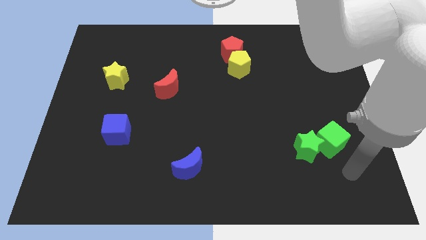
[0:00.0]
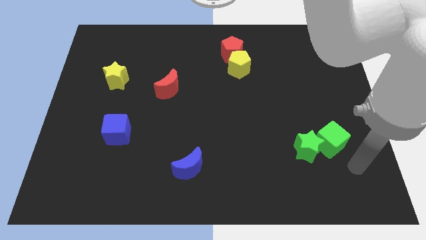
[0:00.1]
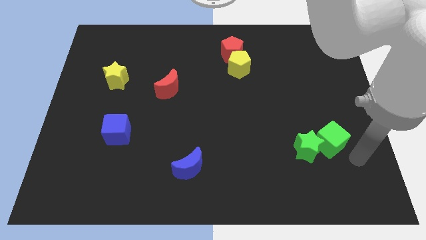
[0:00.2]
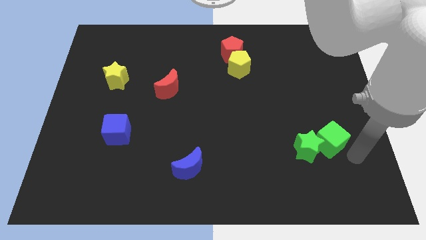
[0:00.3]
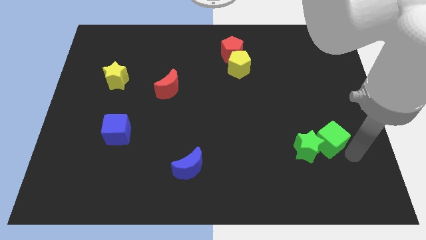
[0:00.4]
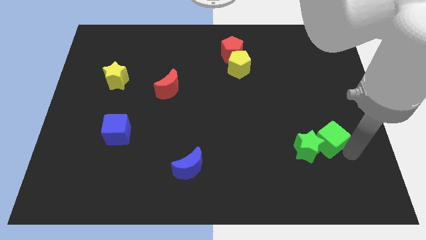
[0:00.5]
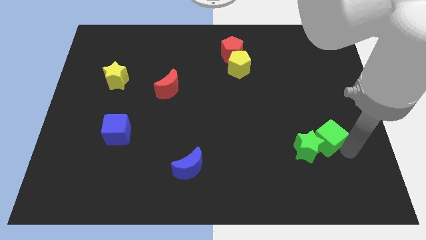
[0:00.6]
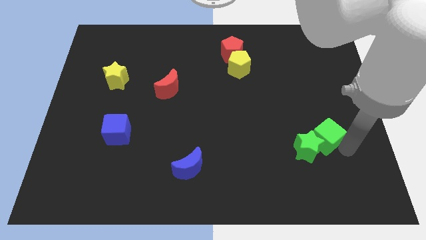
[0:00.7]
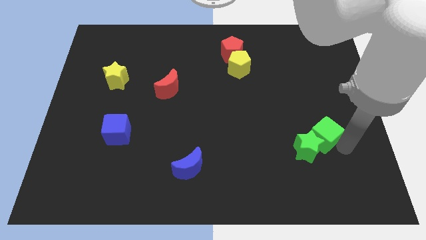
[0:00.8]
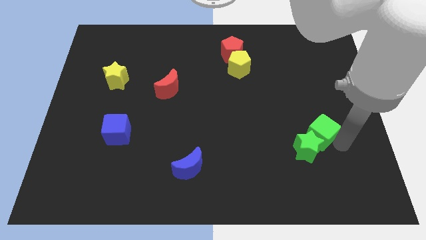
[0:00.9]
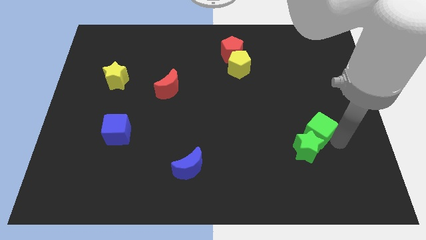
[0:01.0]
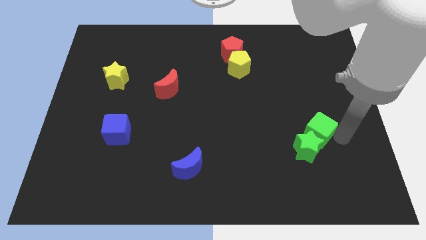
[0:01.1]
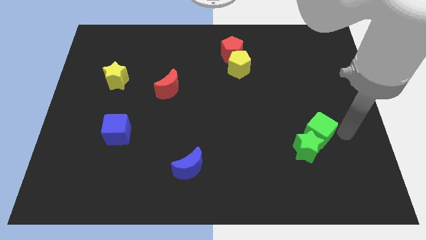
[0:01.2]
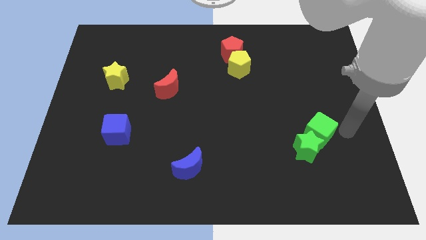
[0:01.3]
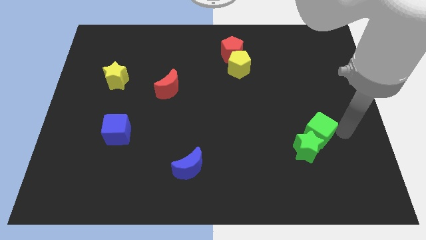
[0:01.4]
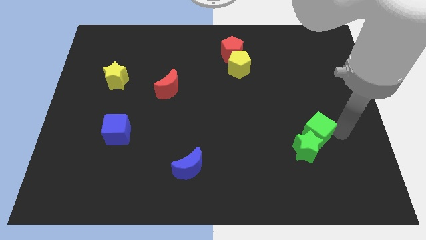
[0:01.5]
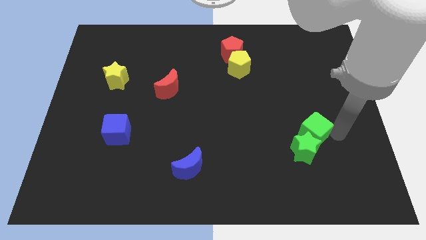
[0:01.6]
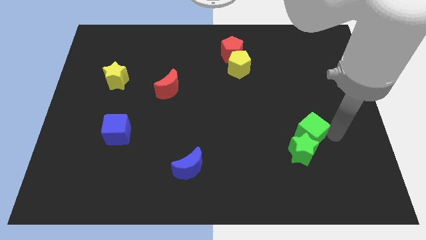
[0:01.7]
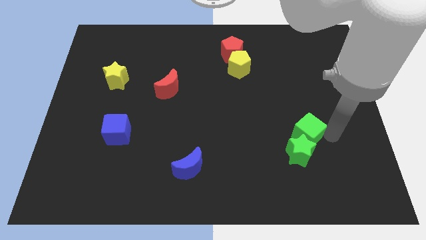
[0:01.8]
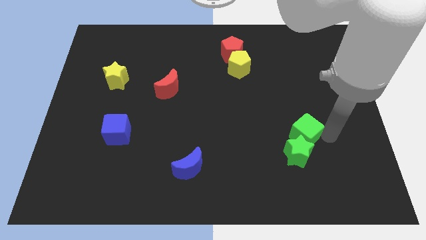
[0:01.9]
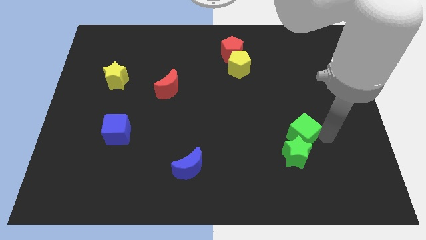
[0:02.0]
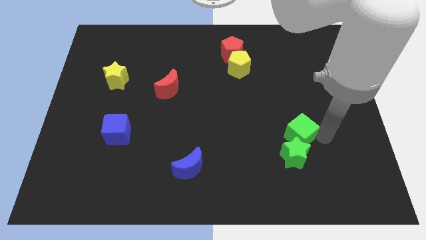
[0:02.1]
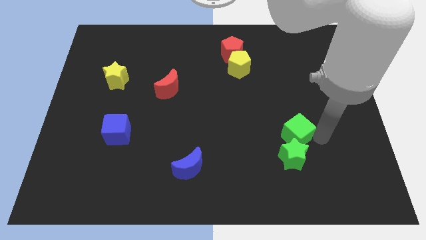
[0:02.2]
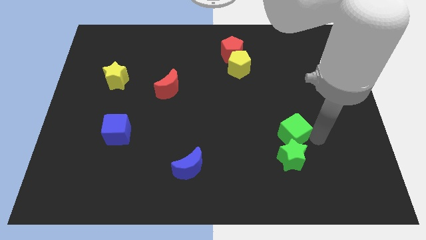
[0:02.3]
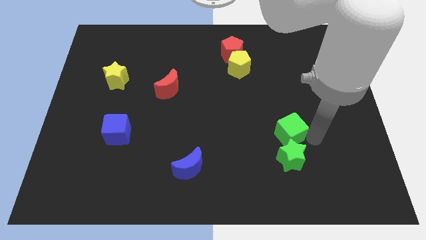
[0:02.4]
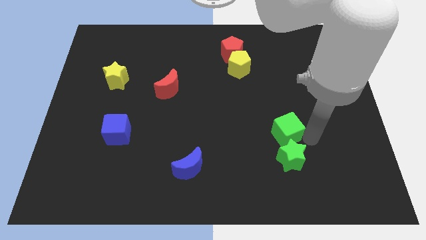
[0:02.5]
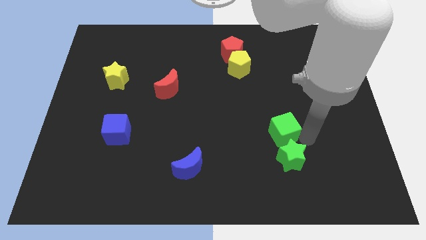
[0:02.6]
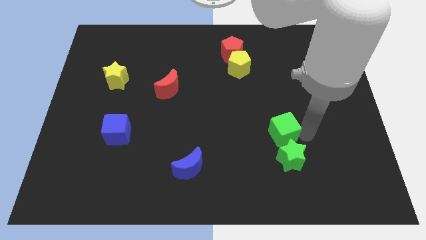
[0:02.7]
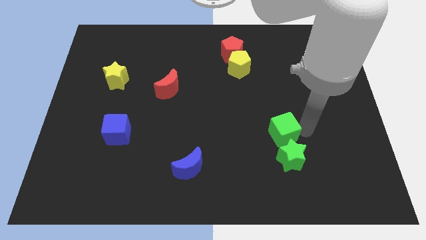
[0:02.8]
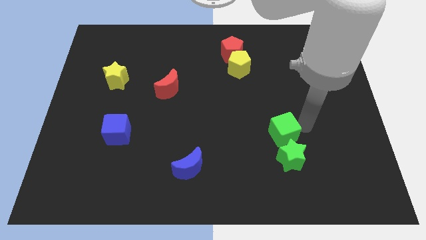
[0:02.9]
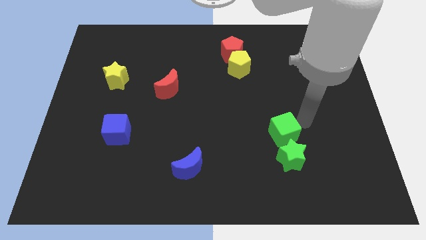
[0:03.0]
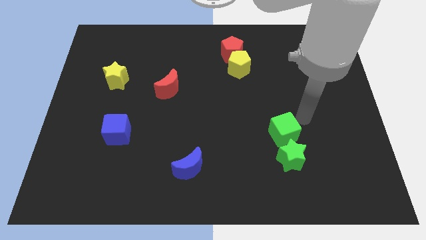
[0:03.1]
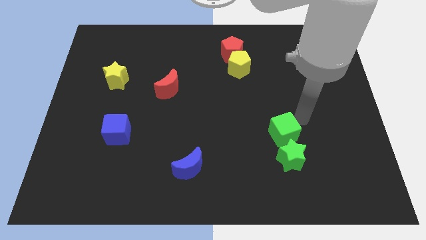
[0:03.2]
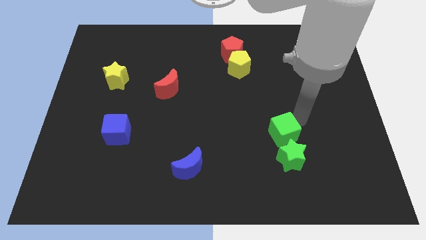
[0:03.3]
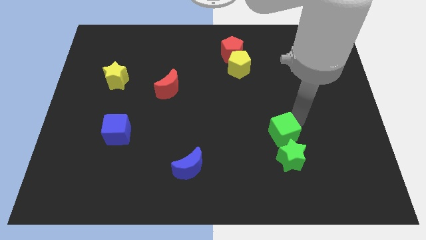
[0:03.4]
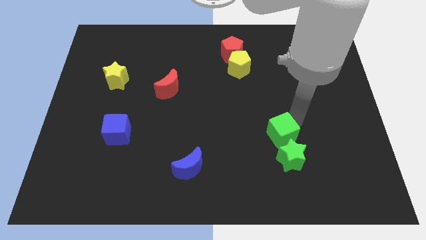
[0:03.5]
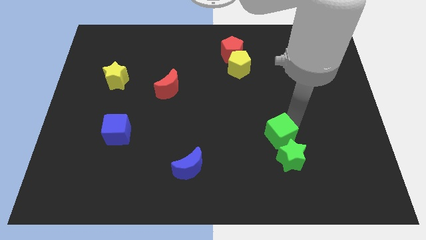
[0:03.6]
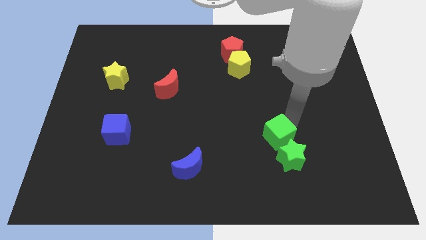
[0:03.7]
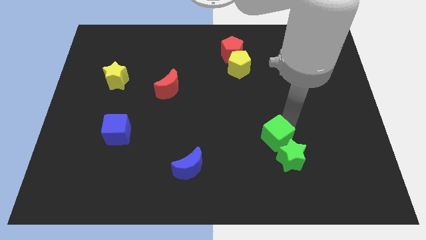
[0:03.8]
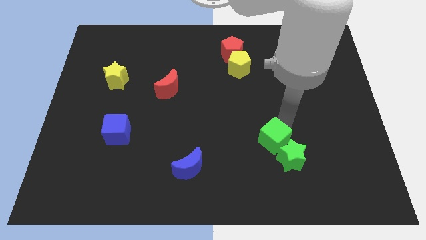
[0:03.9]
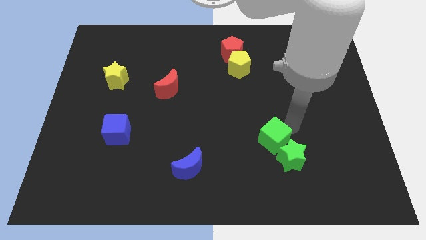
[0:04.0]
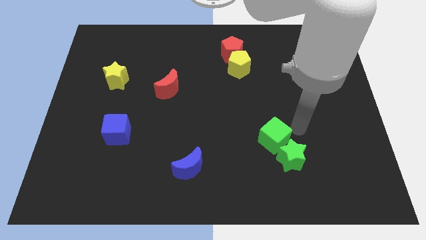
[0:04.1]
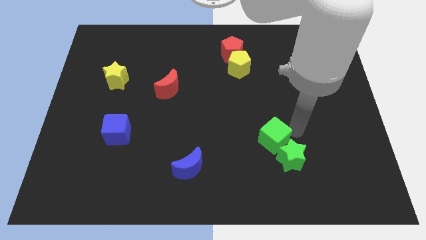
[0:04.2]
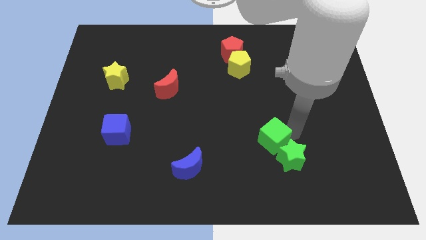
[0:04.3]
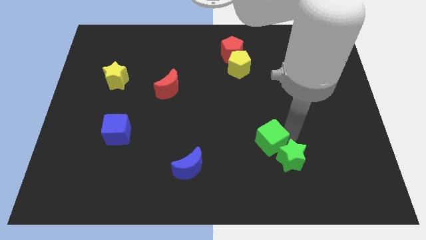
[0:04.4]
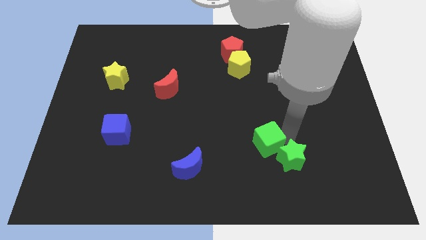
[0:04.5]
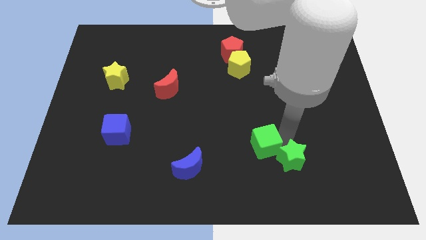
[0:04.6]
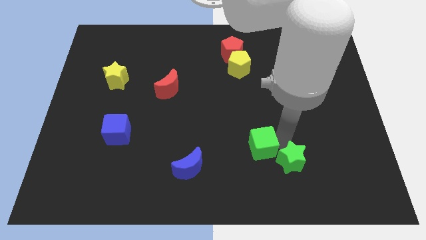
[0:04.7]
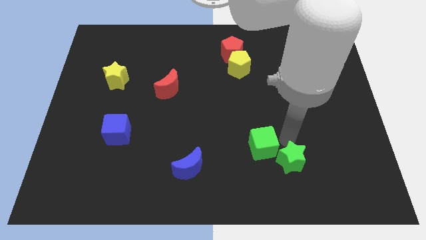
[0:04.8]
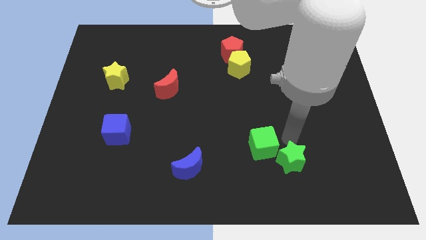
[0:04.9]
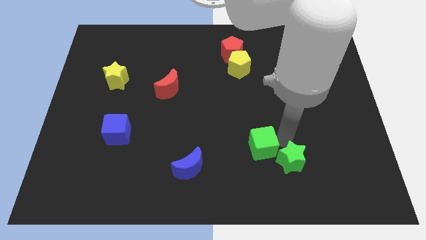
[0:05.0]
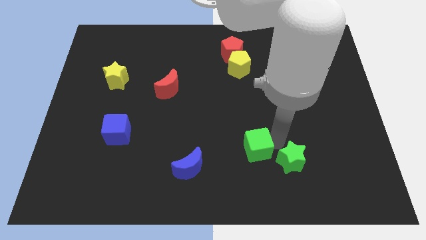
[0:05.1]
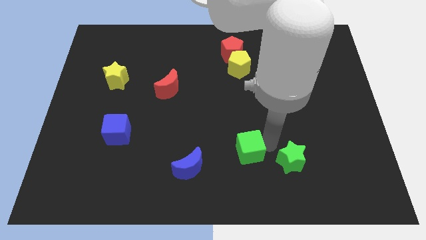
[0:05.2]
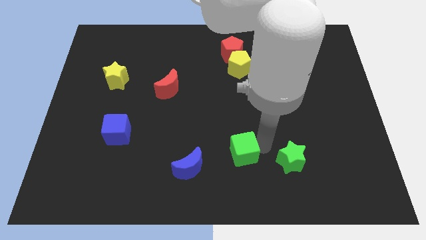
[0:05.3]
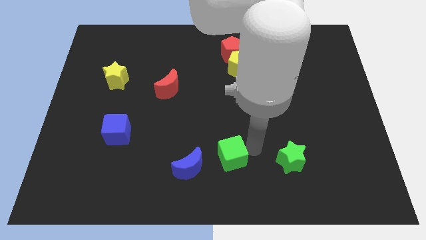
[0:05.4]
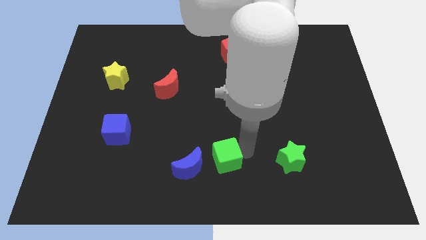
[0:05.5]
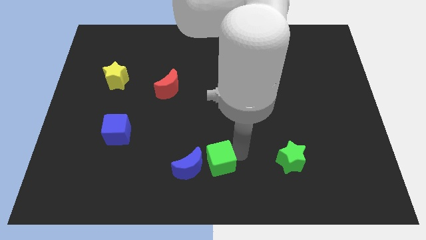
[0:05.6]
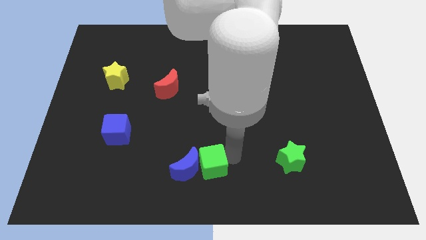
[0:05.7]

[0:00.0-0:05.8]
put the green cube to the blue moon

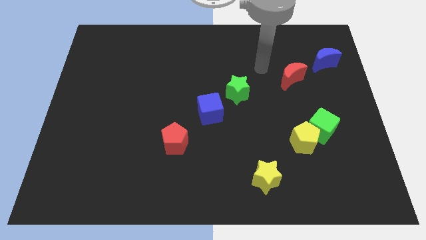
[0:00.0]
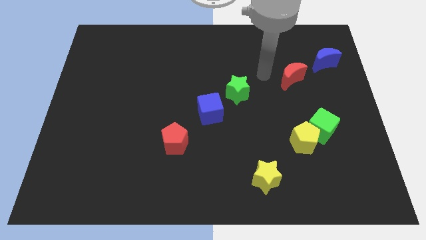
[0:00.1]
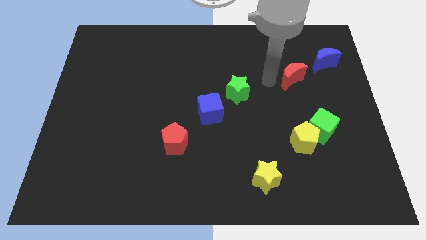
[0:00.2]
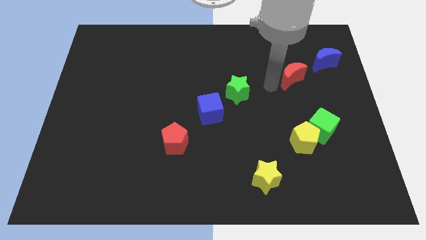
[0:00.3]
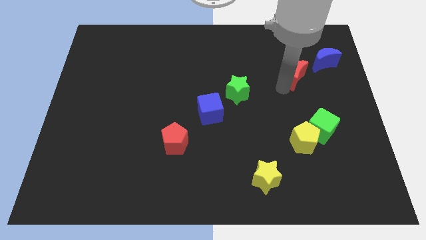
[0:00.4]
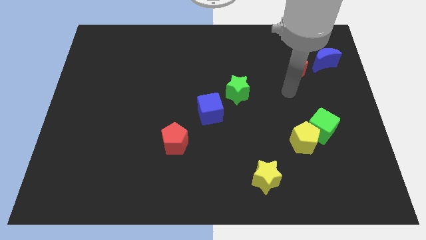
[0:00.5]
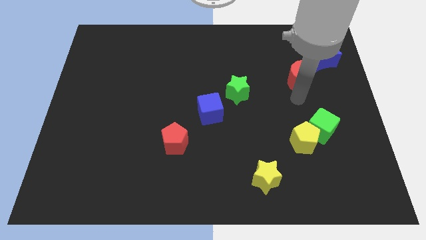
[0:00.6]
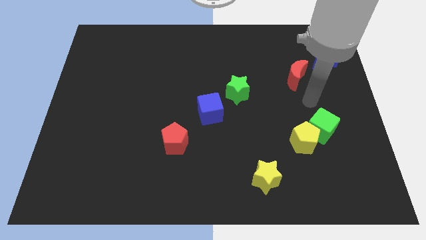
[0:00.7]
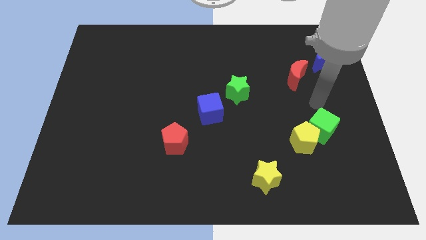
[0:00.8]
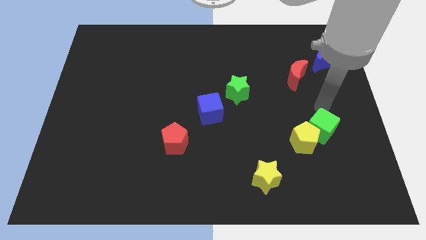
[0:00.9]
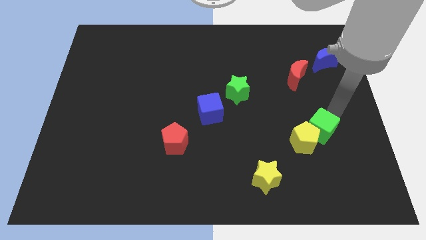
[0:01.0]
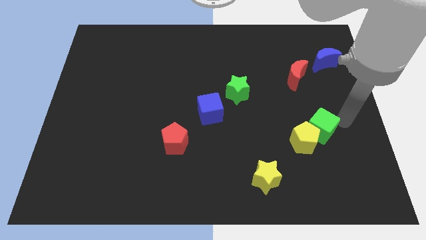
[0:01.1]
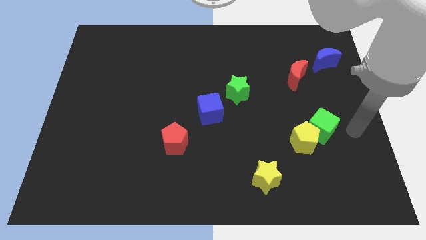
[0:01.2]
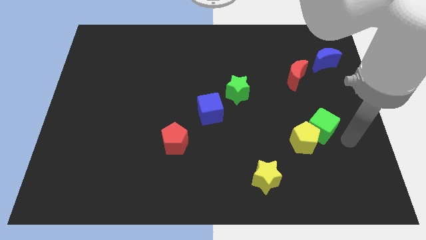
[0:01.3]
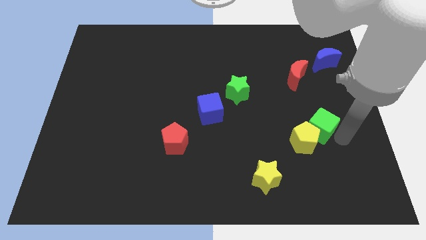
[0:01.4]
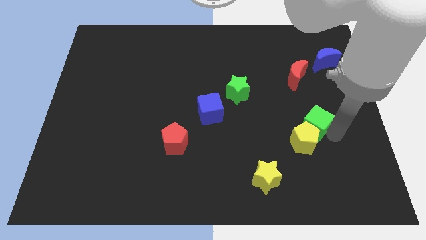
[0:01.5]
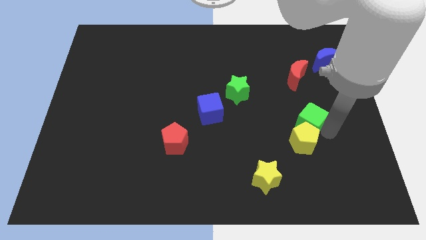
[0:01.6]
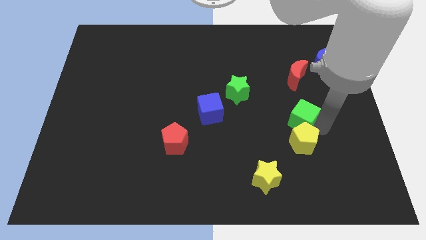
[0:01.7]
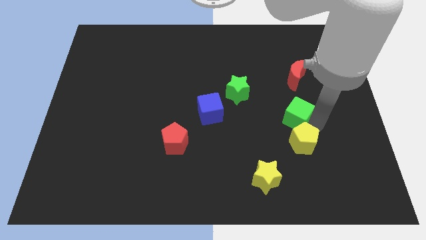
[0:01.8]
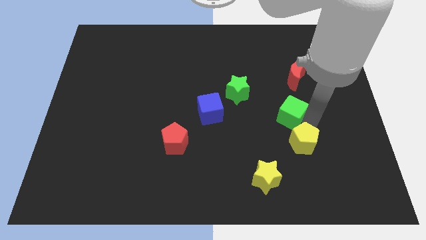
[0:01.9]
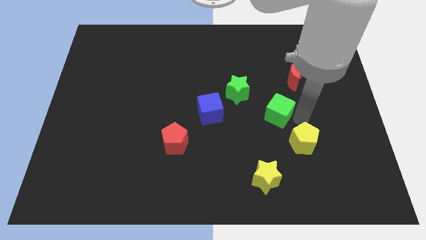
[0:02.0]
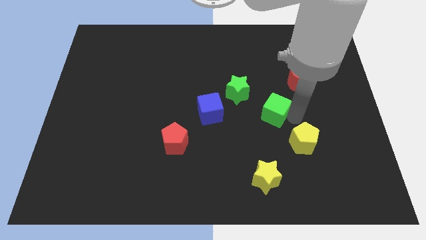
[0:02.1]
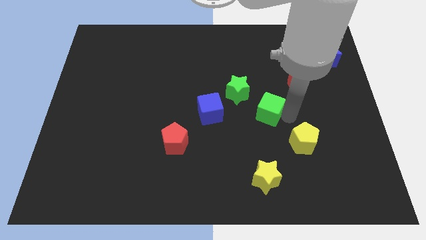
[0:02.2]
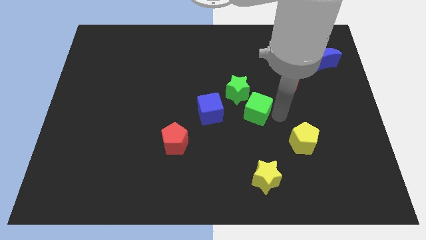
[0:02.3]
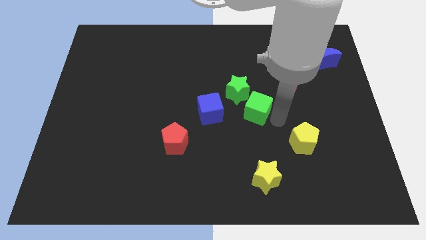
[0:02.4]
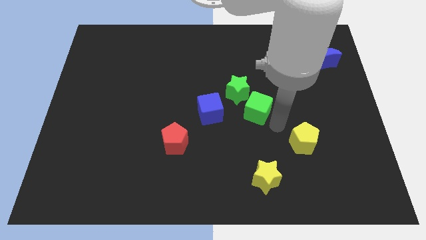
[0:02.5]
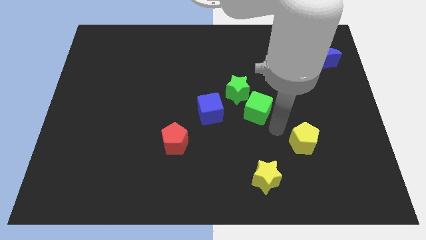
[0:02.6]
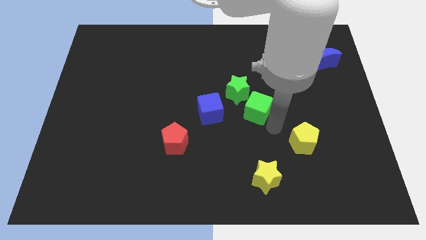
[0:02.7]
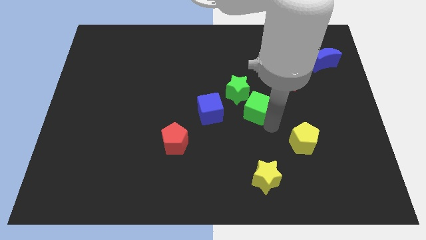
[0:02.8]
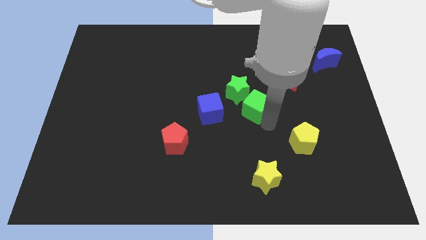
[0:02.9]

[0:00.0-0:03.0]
push the green cube next to the green star
